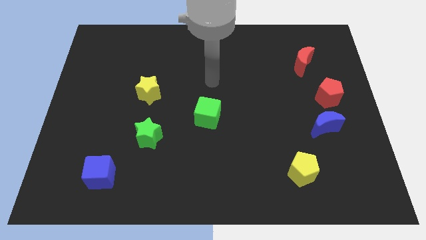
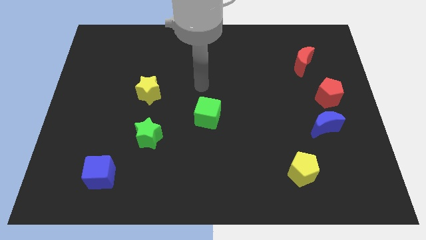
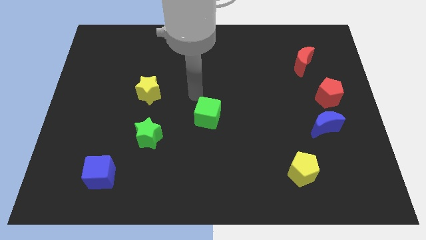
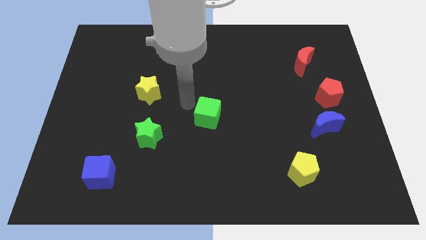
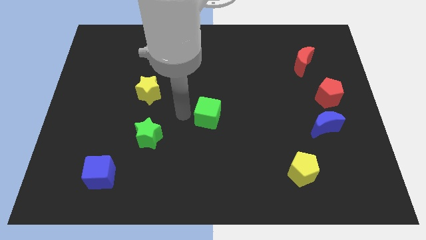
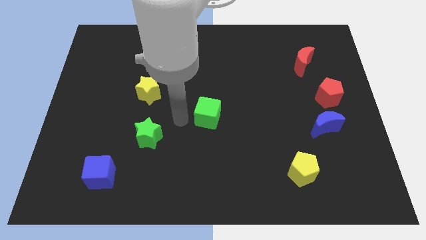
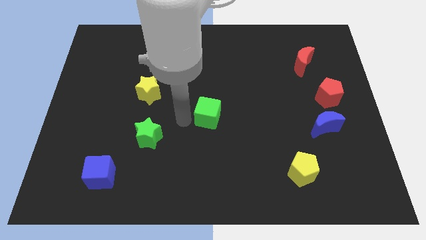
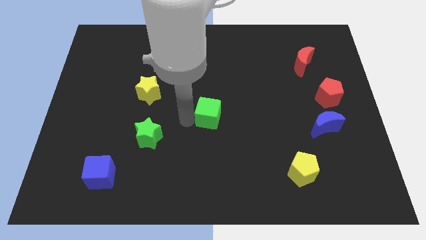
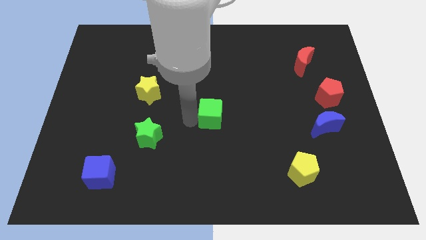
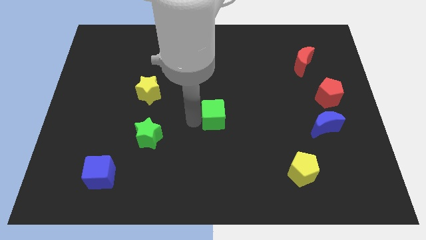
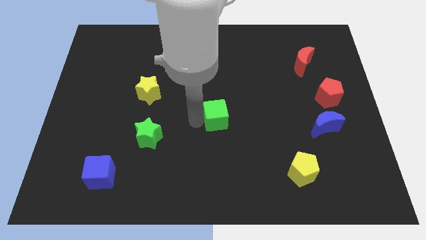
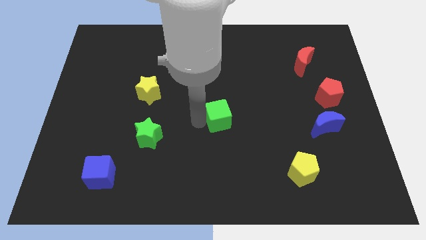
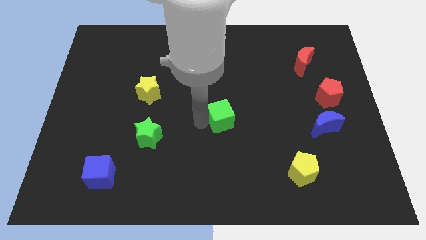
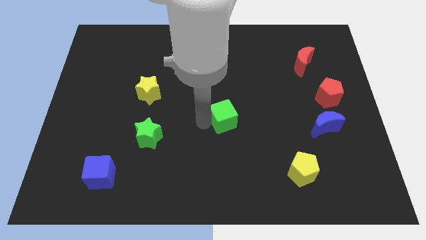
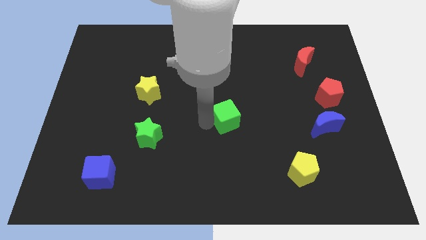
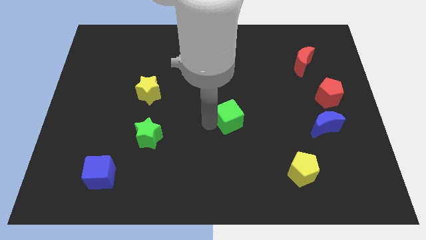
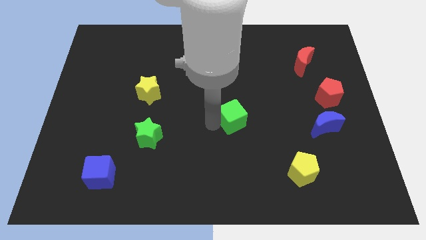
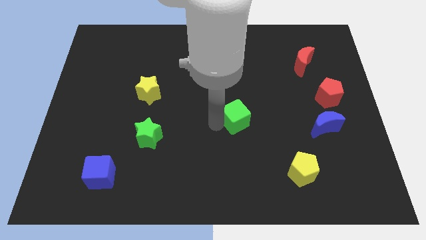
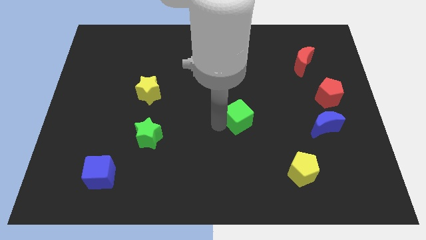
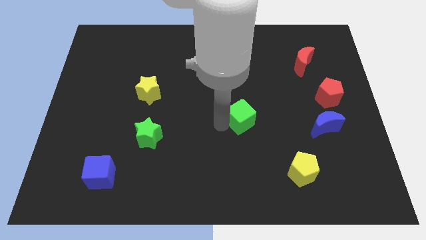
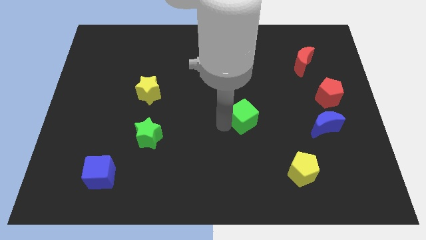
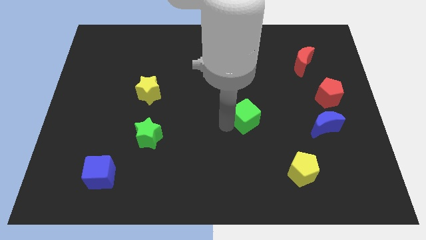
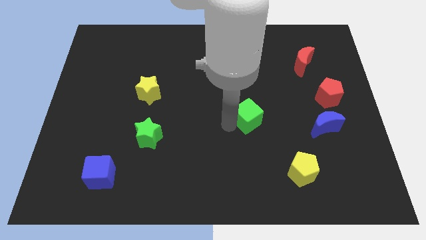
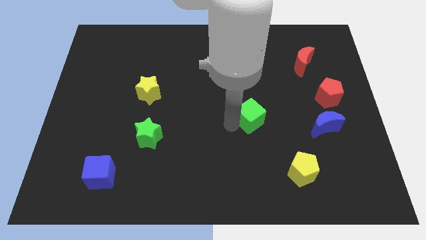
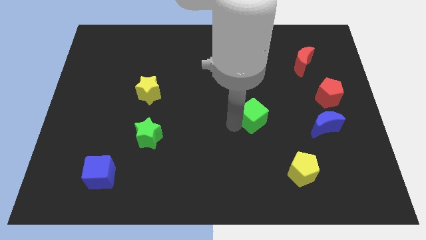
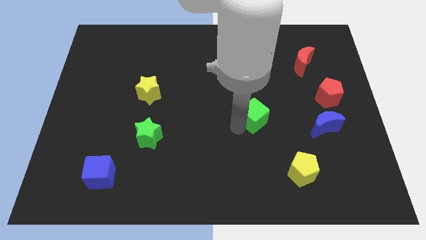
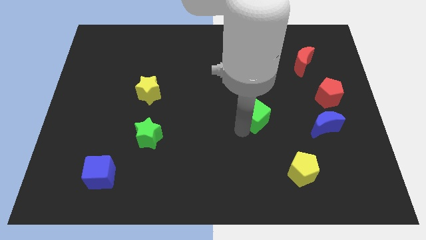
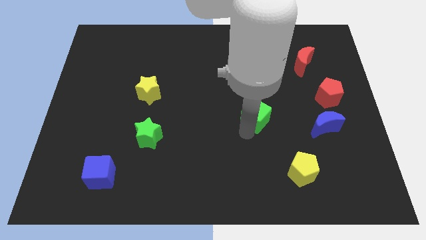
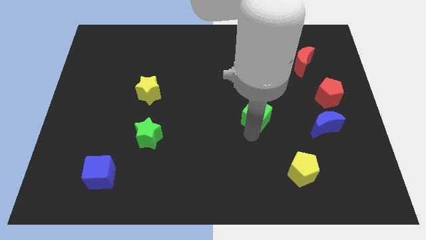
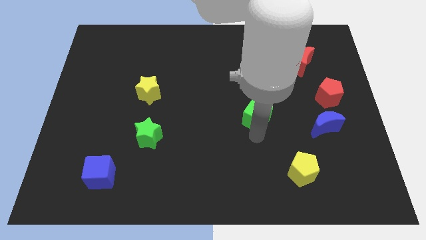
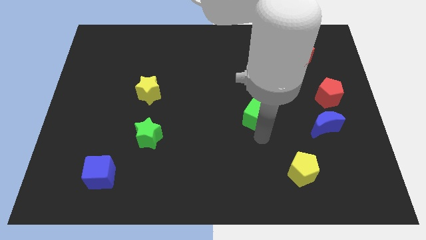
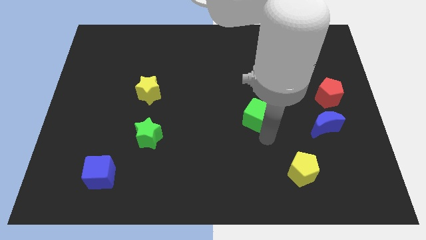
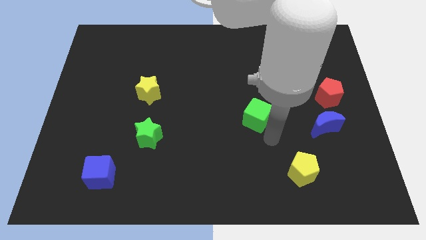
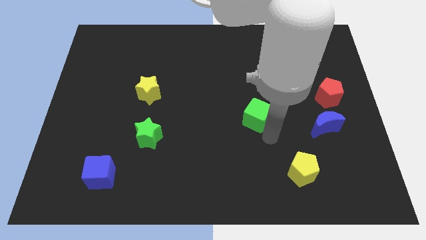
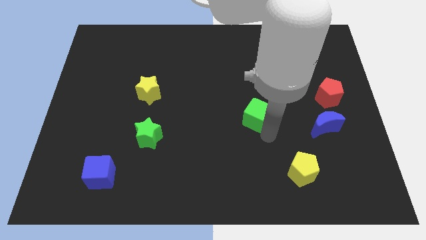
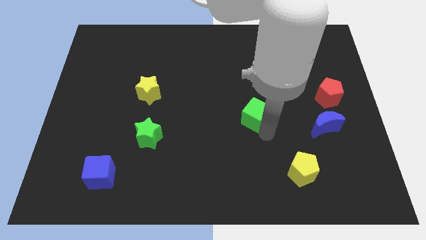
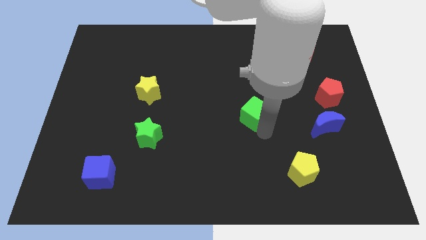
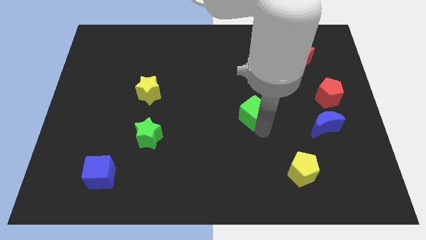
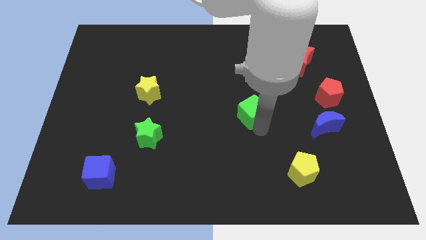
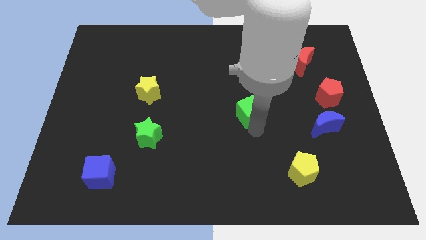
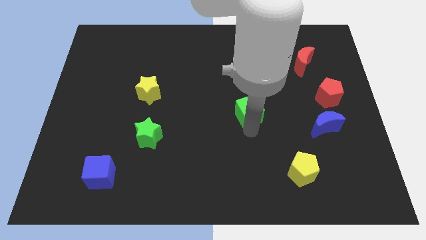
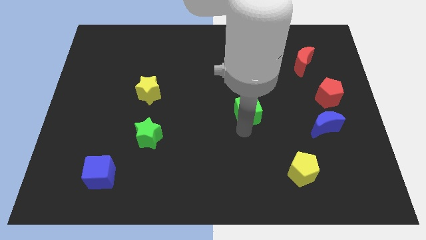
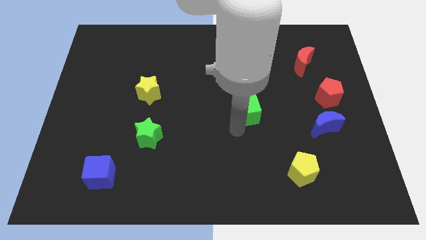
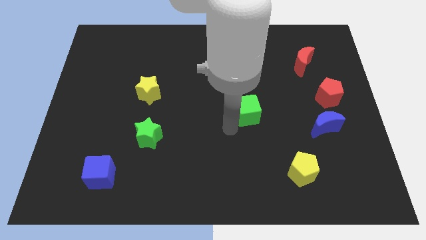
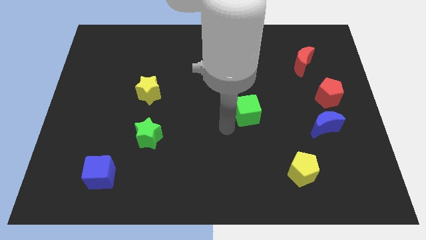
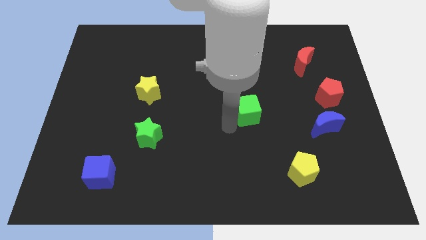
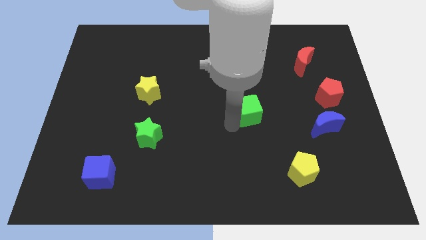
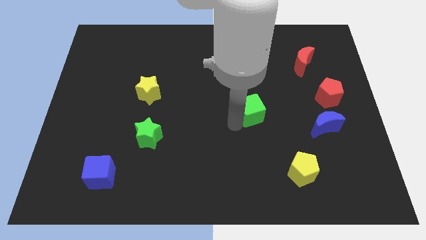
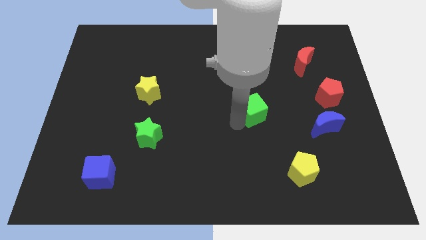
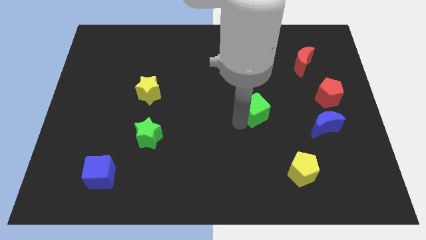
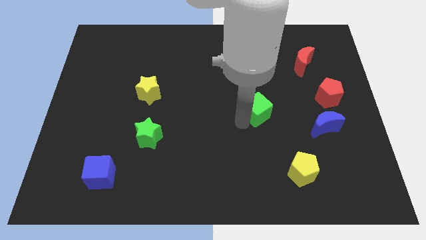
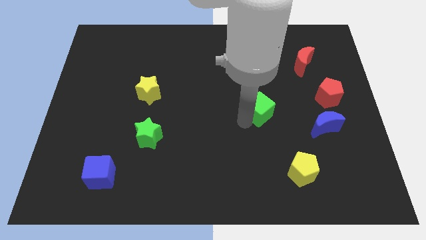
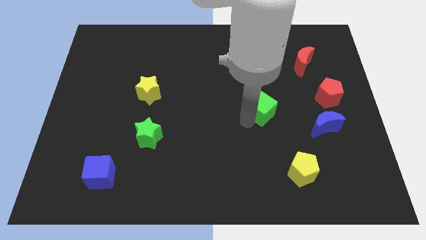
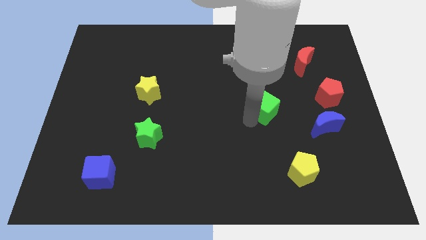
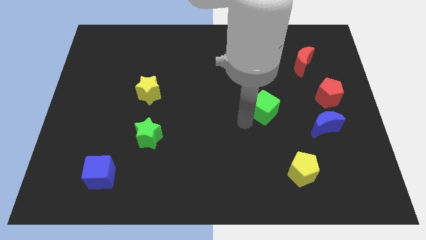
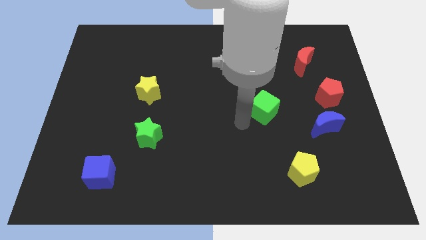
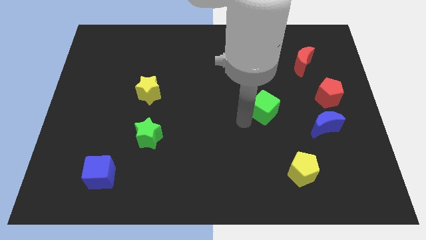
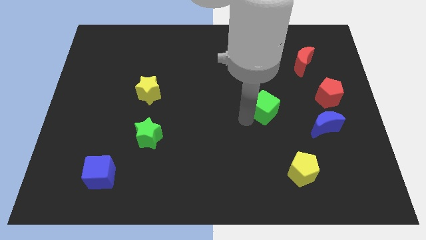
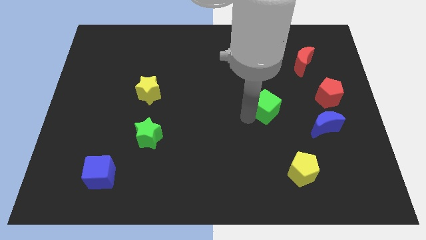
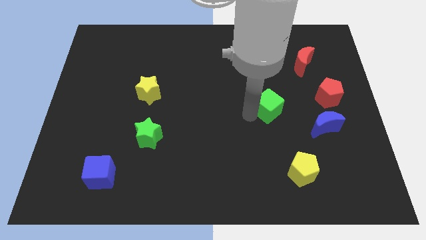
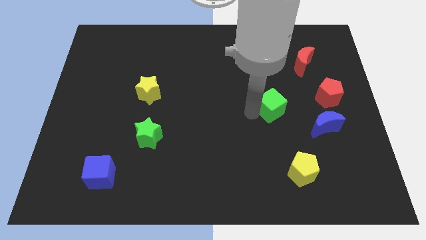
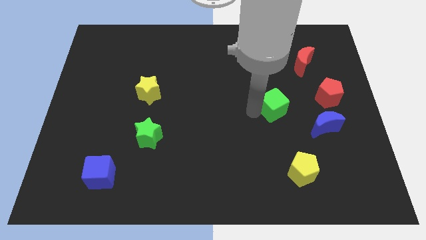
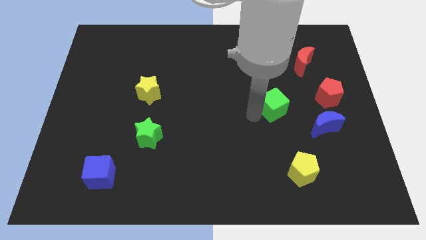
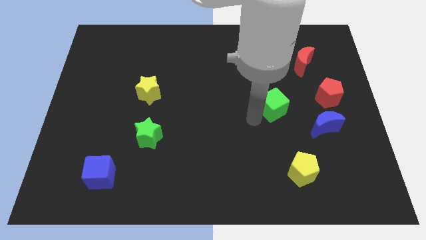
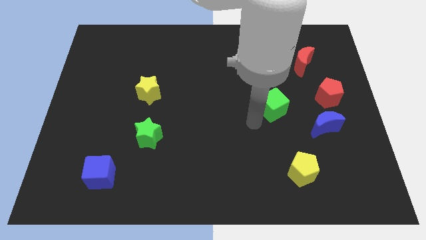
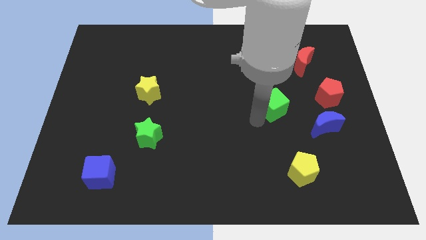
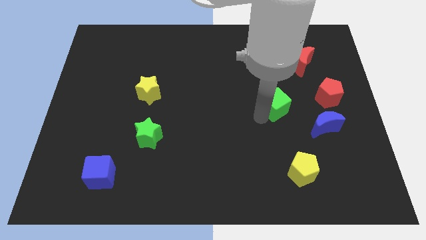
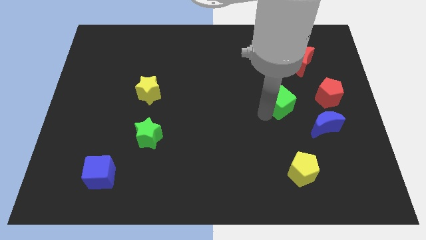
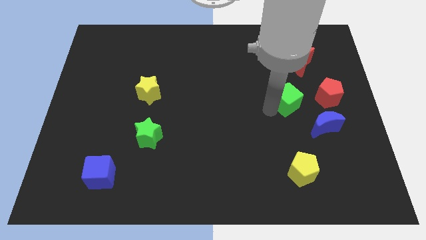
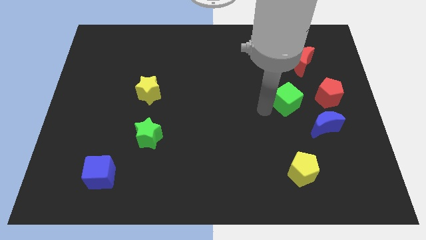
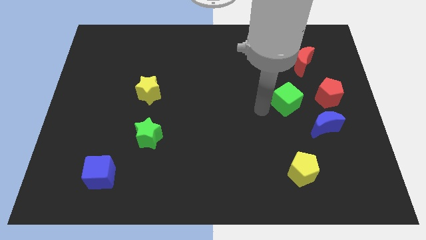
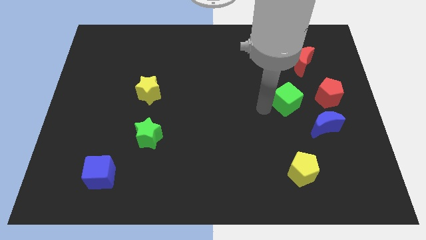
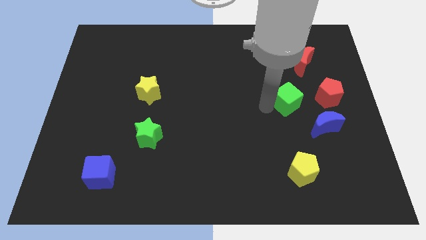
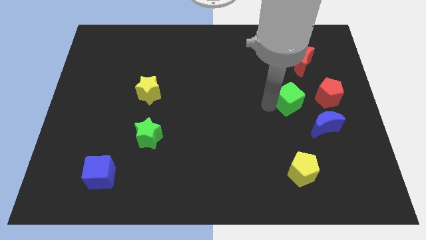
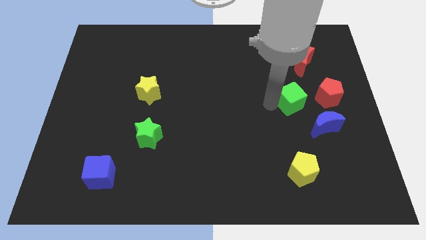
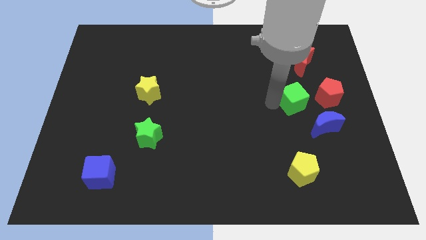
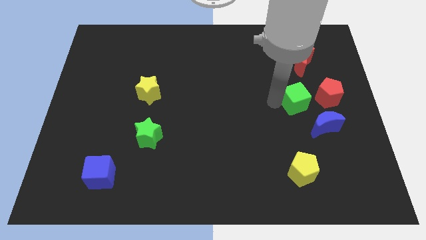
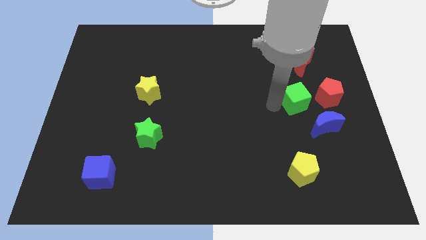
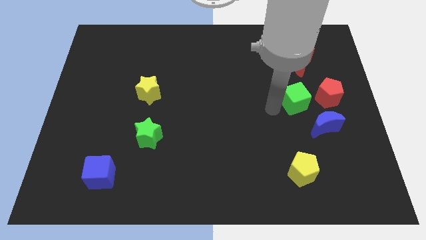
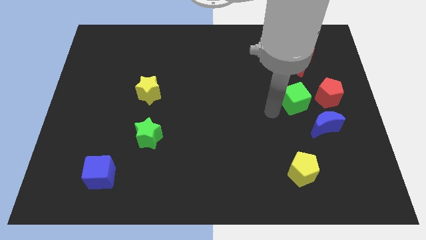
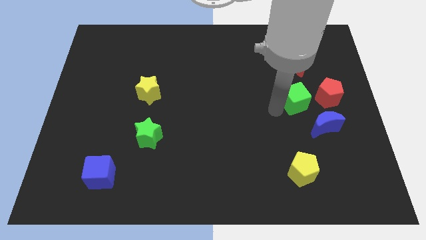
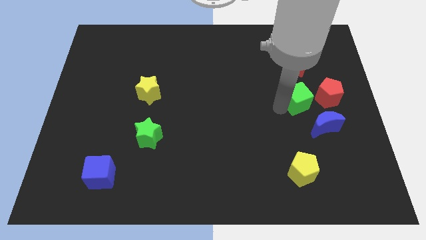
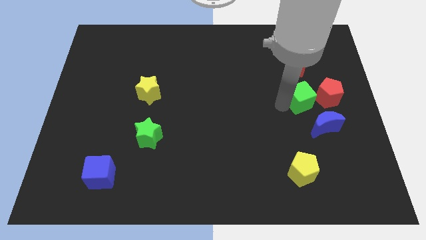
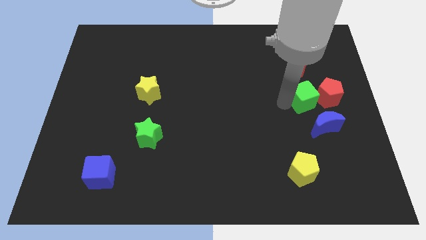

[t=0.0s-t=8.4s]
slide the green cube to the red pentagon
